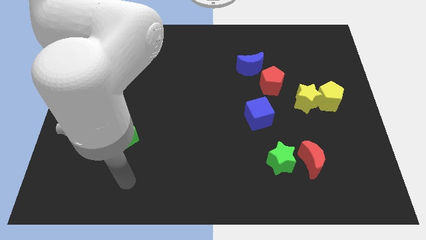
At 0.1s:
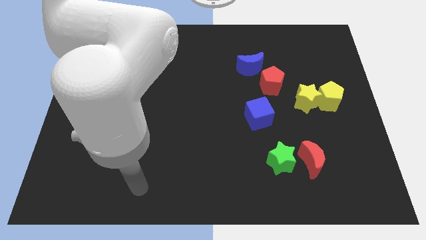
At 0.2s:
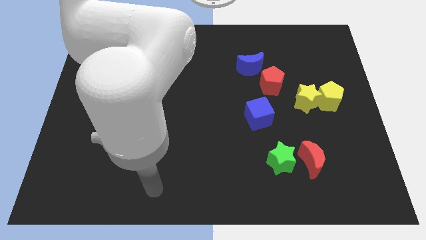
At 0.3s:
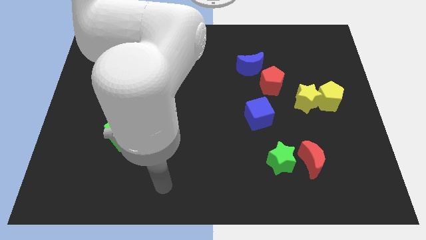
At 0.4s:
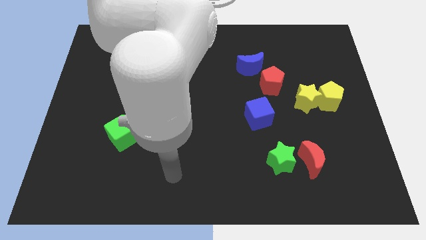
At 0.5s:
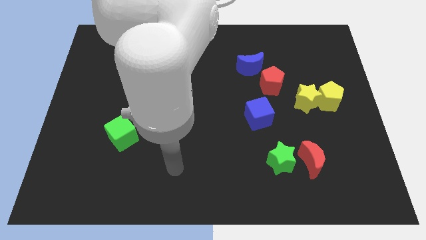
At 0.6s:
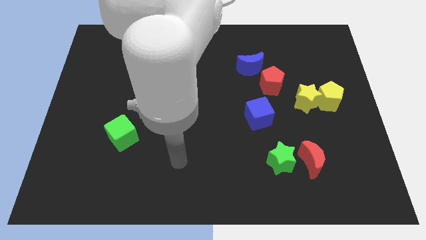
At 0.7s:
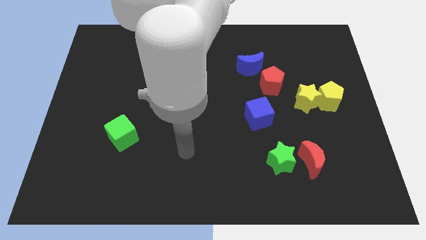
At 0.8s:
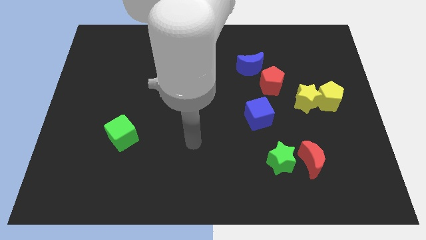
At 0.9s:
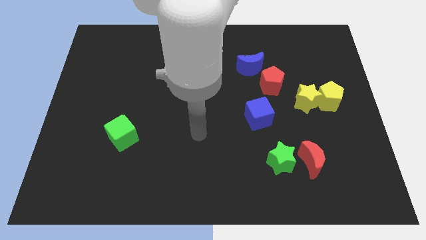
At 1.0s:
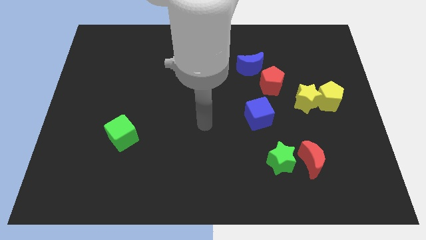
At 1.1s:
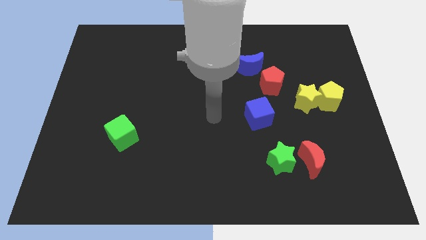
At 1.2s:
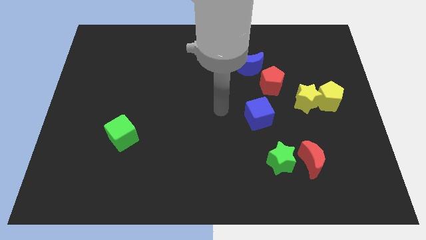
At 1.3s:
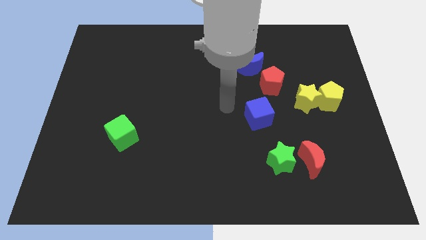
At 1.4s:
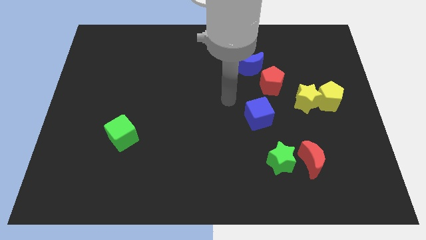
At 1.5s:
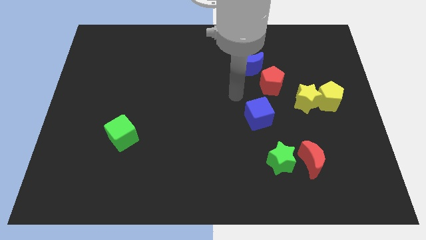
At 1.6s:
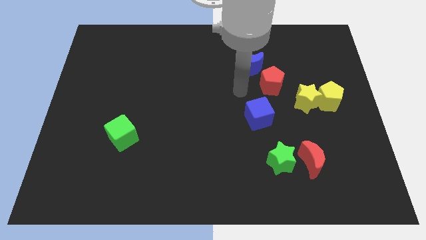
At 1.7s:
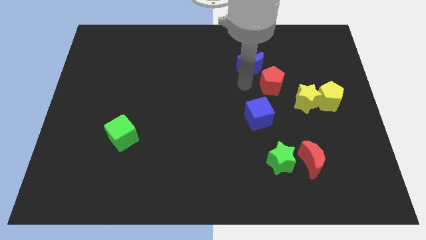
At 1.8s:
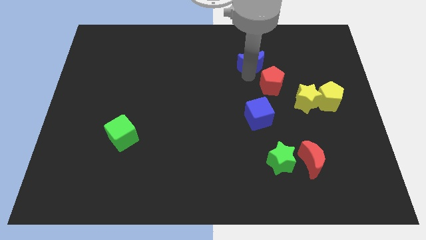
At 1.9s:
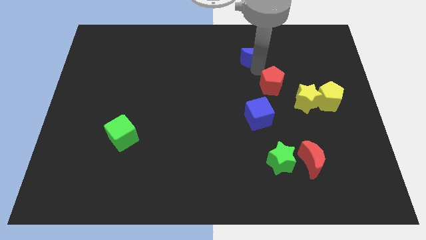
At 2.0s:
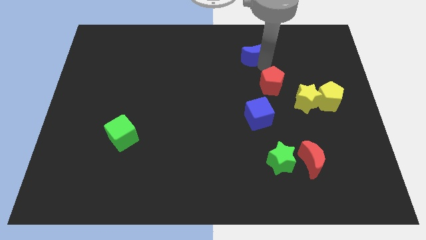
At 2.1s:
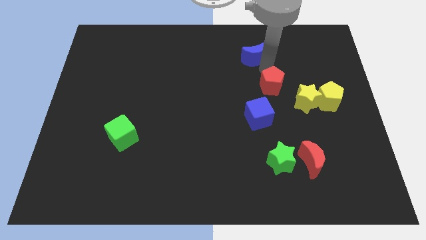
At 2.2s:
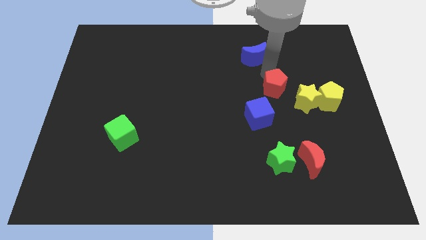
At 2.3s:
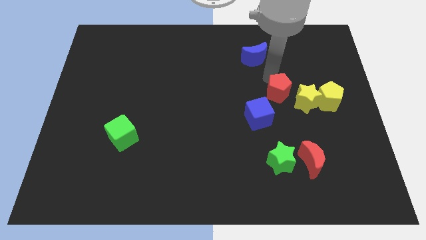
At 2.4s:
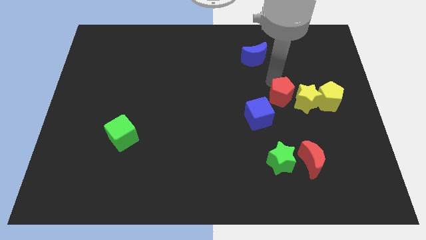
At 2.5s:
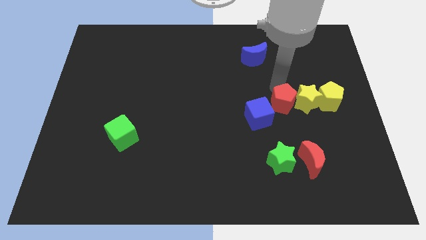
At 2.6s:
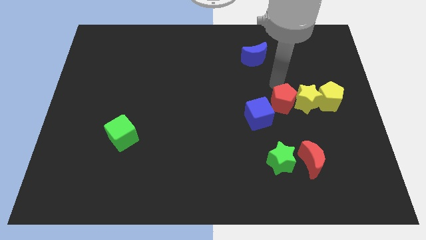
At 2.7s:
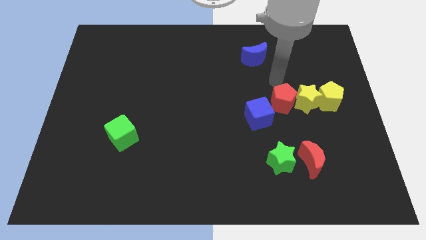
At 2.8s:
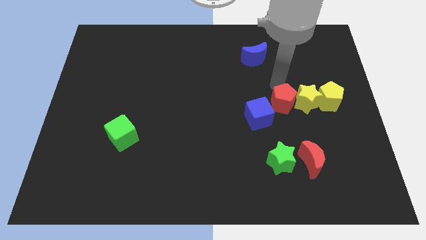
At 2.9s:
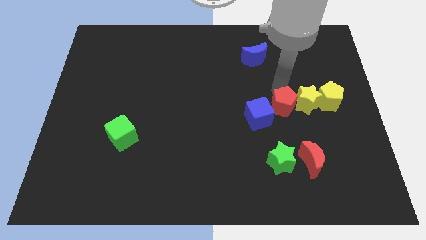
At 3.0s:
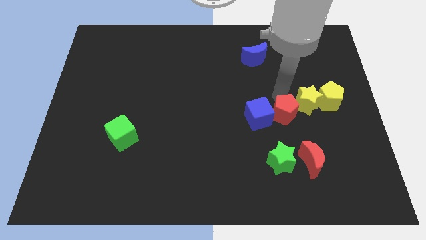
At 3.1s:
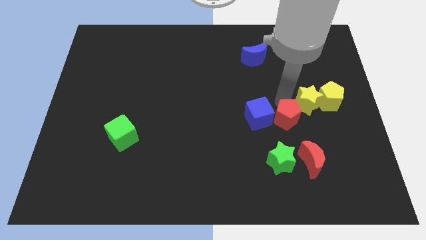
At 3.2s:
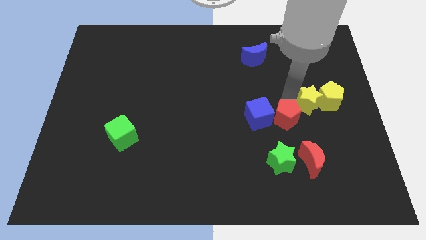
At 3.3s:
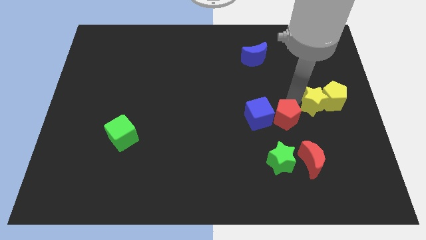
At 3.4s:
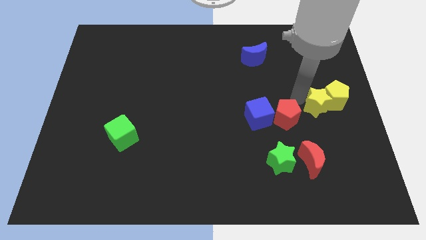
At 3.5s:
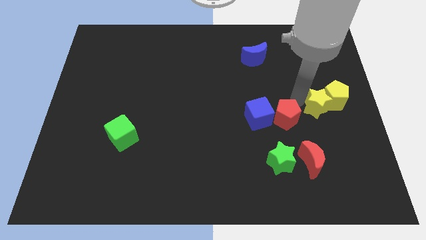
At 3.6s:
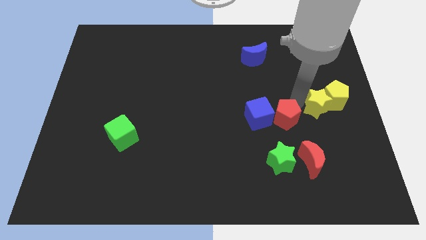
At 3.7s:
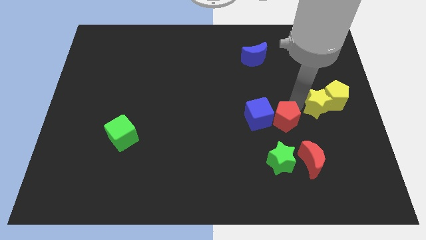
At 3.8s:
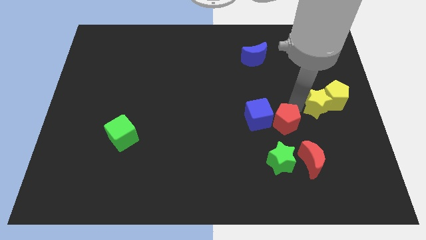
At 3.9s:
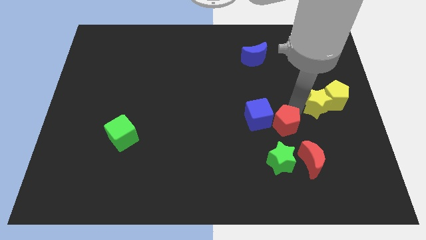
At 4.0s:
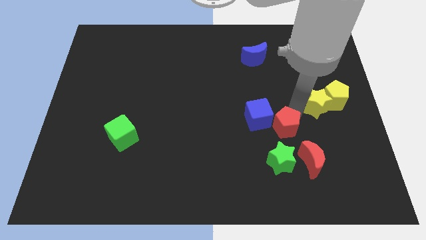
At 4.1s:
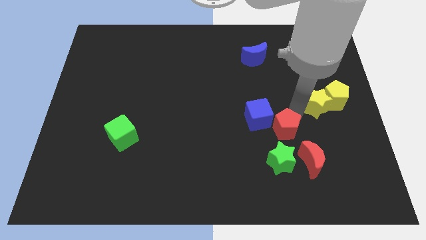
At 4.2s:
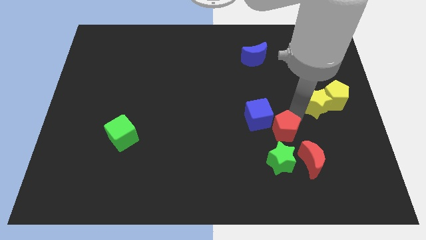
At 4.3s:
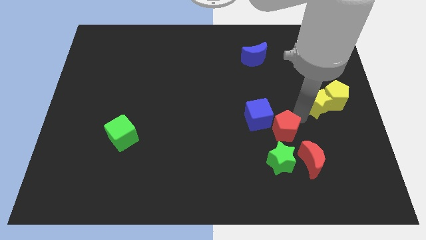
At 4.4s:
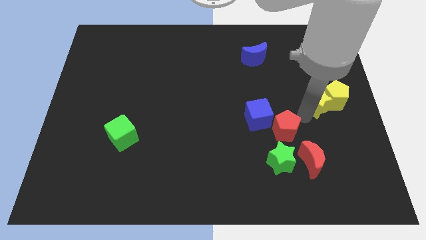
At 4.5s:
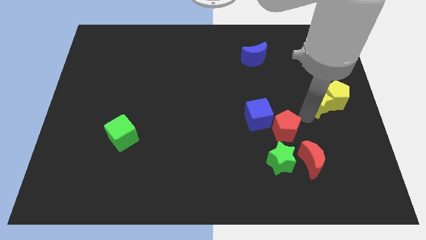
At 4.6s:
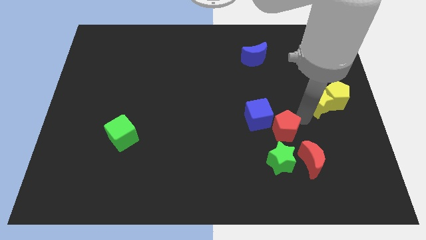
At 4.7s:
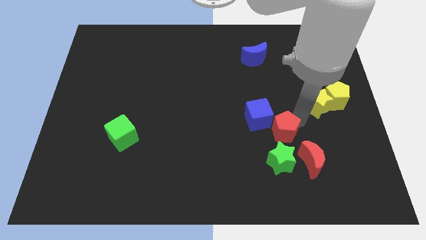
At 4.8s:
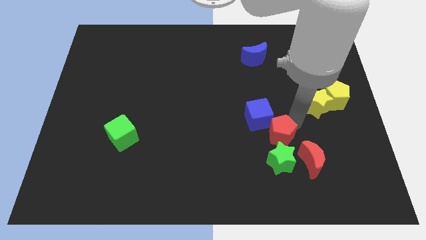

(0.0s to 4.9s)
move the red pentagon to the bottom of the blue cube

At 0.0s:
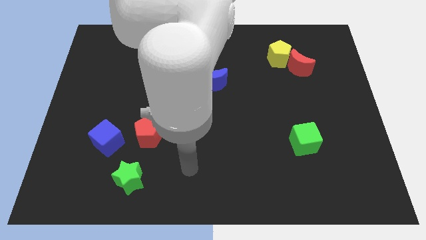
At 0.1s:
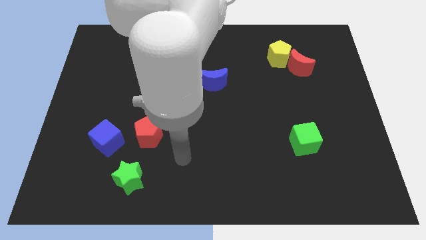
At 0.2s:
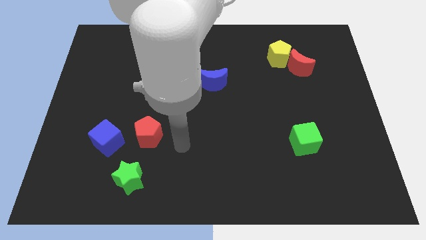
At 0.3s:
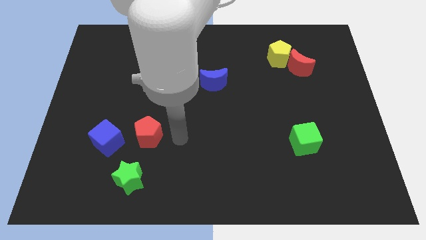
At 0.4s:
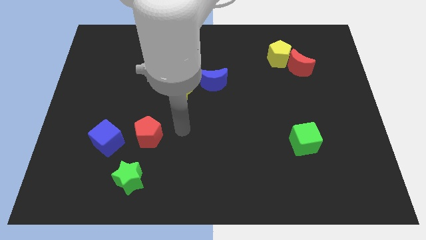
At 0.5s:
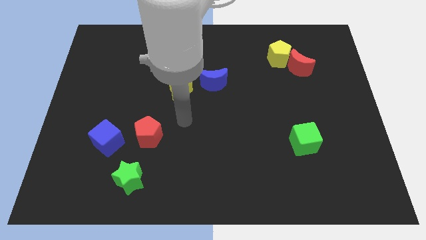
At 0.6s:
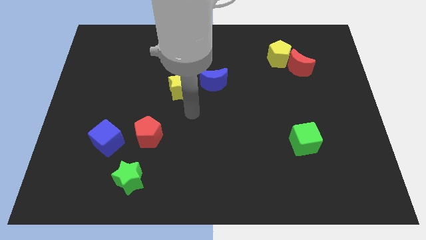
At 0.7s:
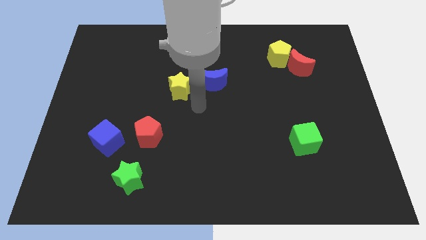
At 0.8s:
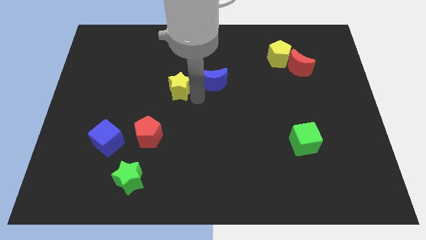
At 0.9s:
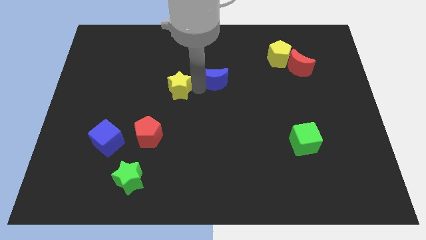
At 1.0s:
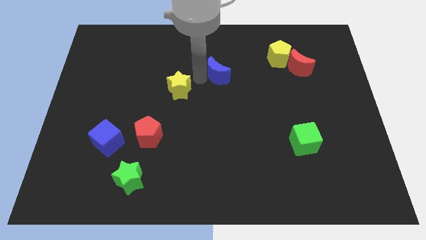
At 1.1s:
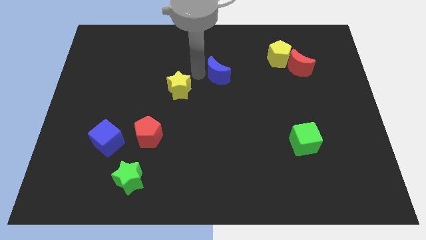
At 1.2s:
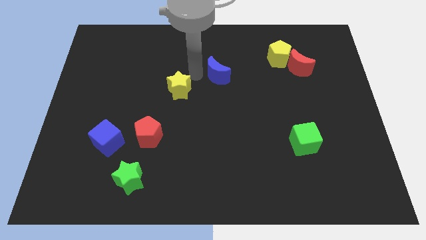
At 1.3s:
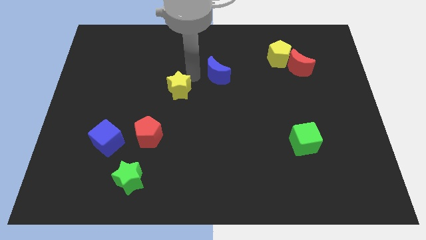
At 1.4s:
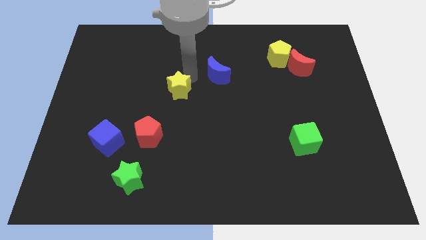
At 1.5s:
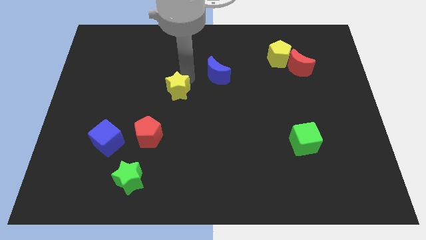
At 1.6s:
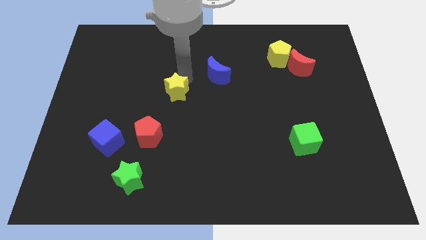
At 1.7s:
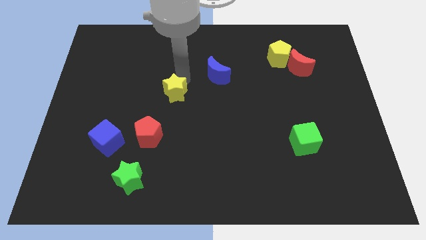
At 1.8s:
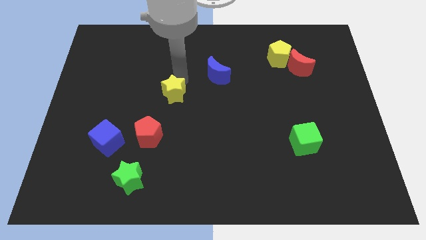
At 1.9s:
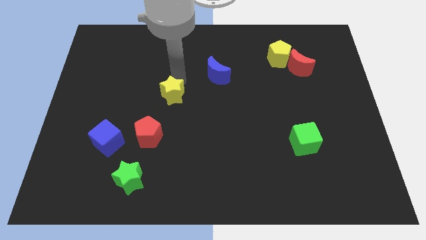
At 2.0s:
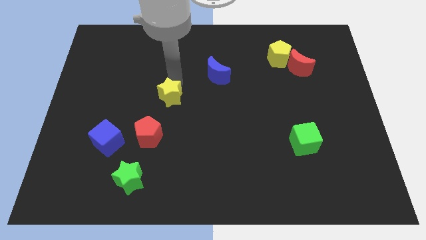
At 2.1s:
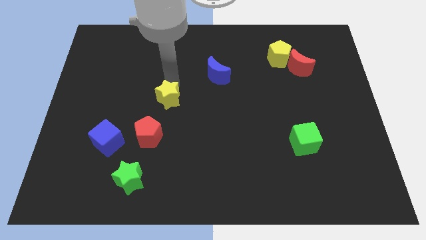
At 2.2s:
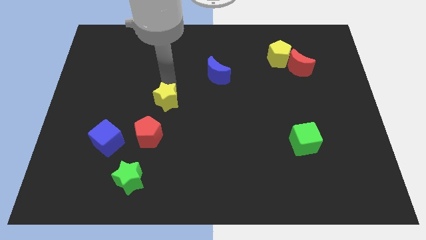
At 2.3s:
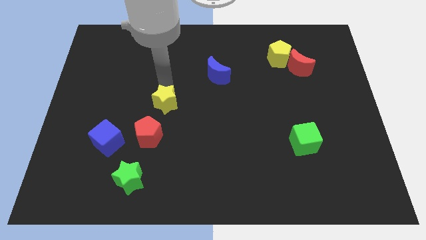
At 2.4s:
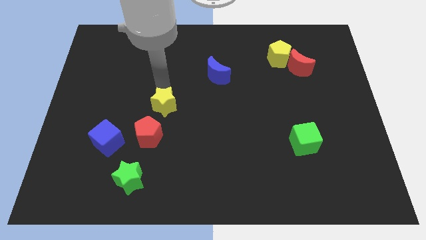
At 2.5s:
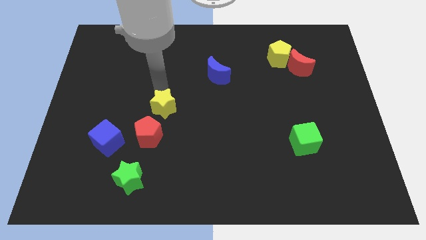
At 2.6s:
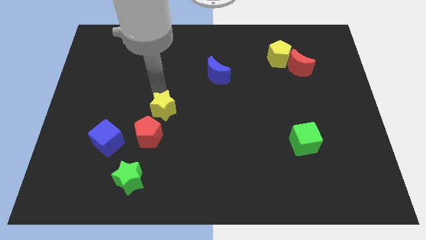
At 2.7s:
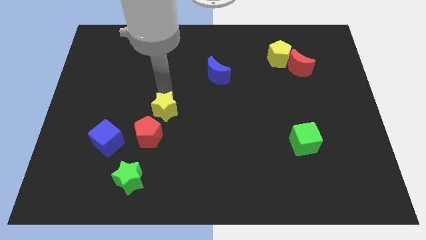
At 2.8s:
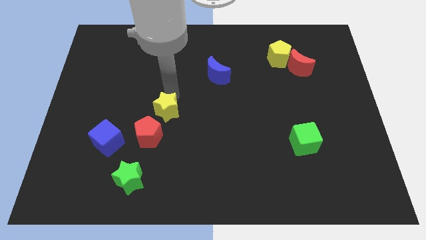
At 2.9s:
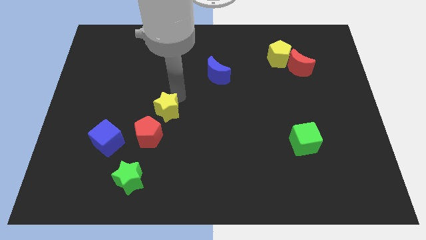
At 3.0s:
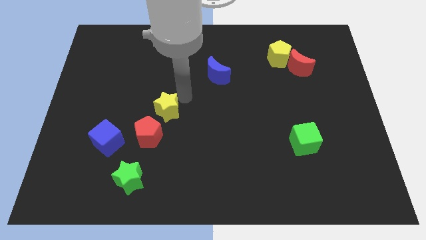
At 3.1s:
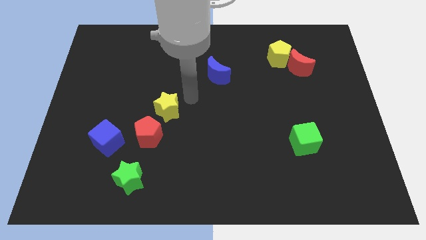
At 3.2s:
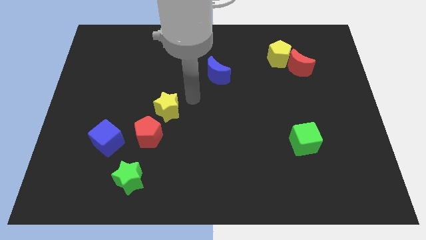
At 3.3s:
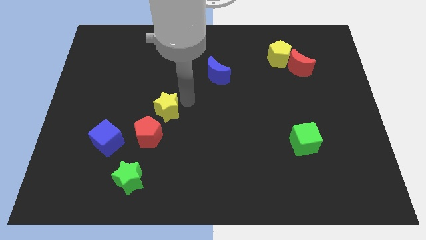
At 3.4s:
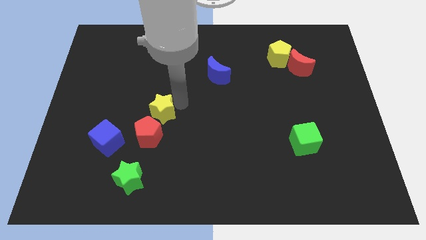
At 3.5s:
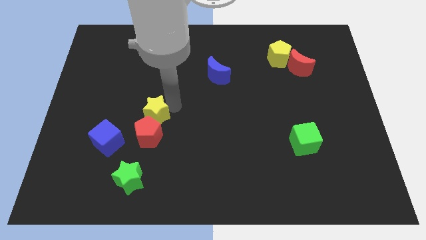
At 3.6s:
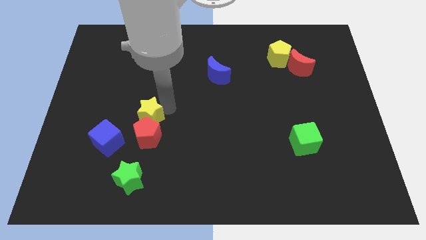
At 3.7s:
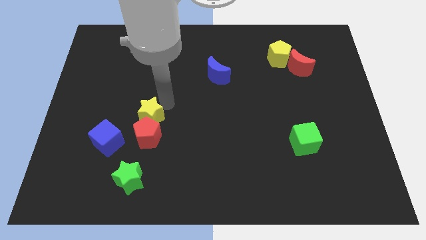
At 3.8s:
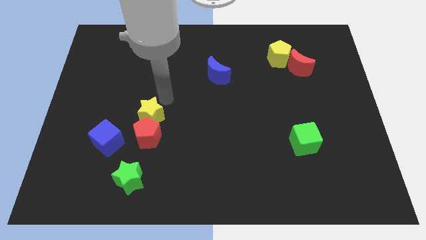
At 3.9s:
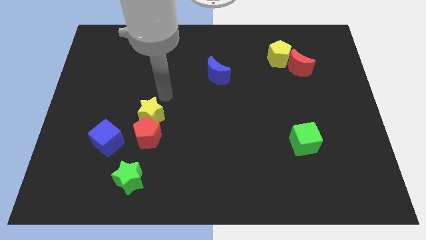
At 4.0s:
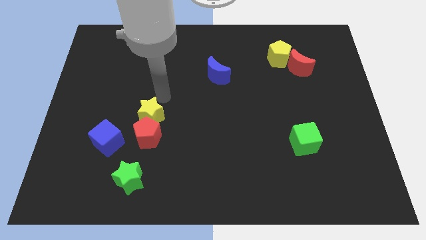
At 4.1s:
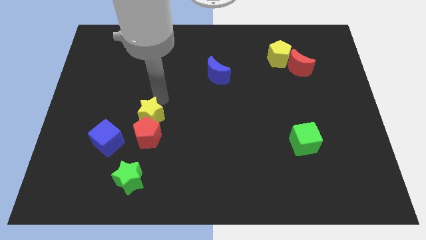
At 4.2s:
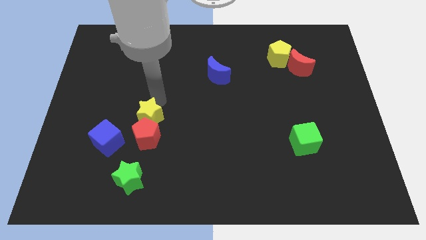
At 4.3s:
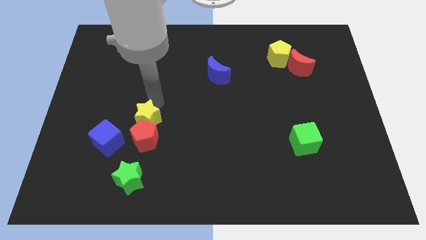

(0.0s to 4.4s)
slide the yellow star to the top of the green star
